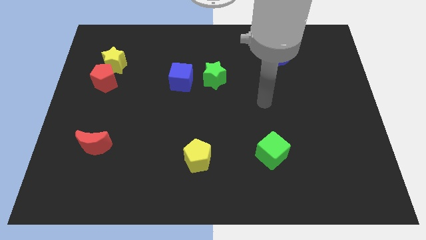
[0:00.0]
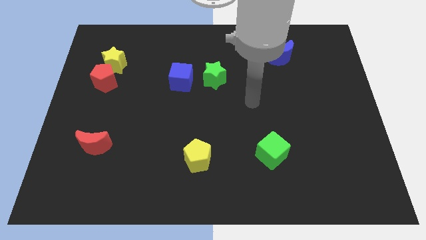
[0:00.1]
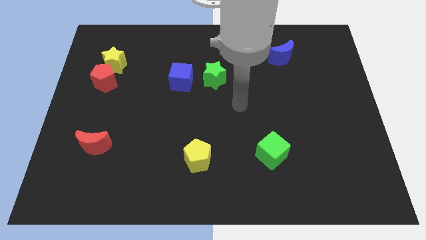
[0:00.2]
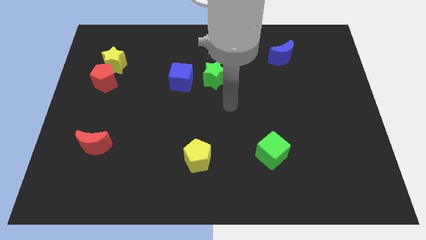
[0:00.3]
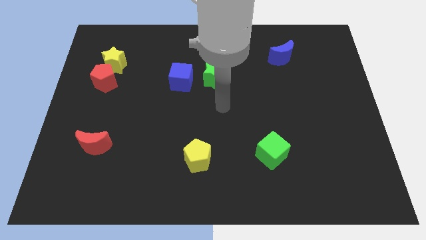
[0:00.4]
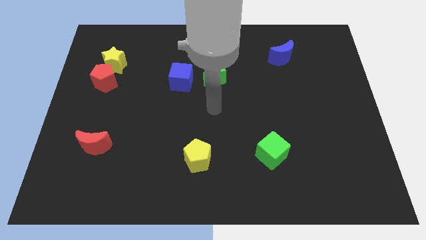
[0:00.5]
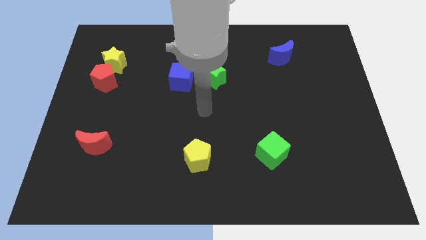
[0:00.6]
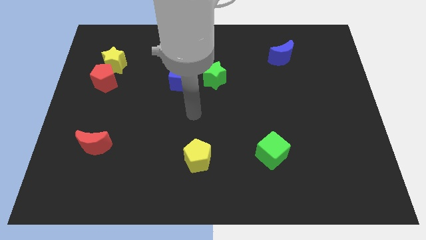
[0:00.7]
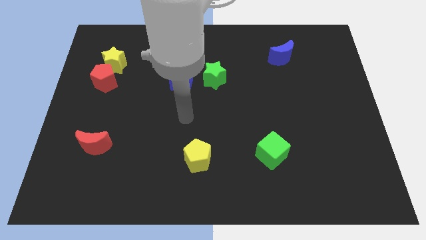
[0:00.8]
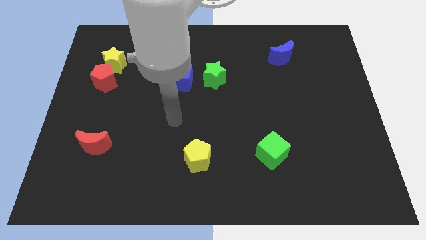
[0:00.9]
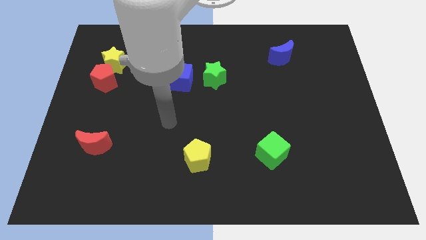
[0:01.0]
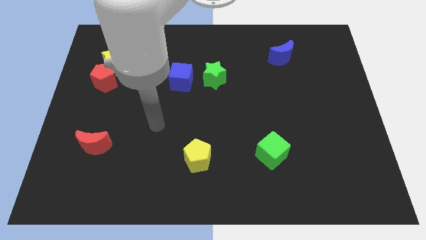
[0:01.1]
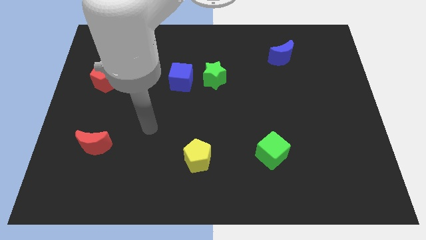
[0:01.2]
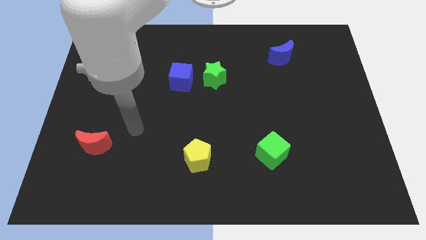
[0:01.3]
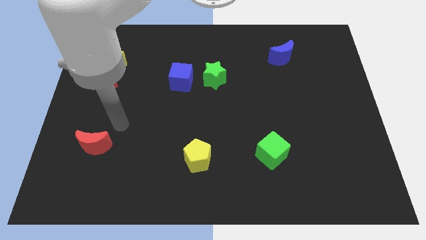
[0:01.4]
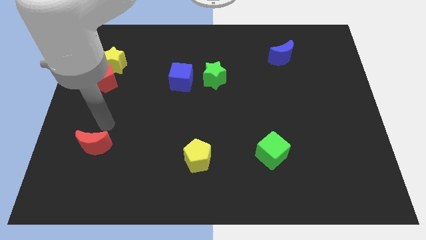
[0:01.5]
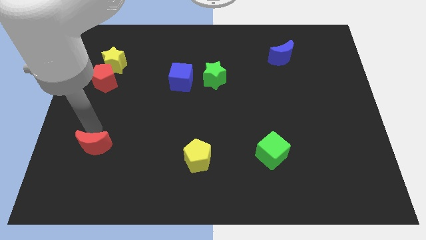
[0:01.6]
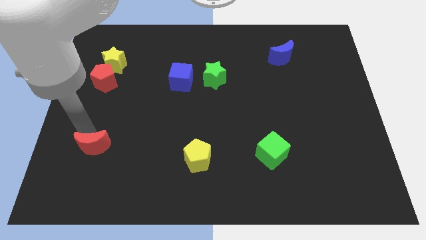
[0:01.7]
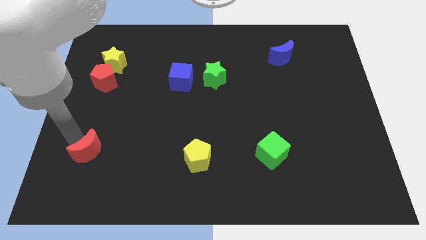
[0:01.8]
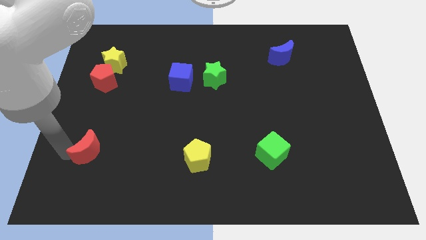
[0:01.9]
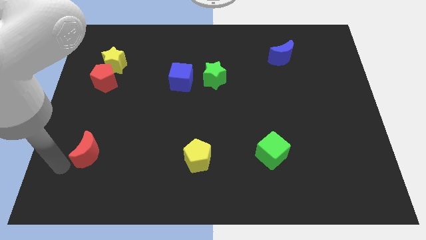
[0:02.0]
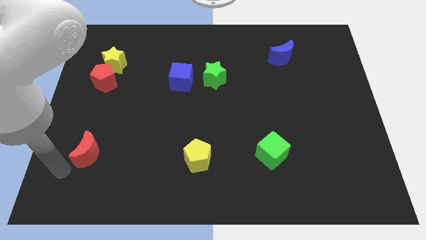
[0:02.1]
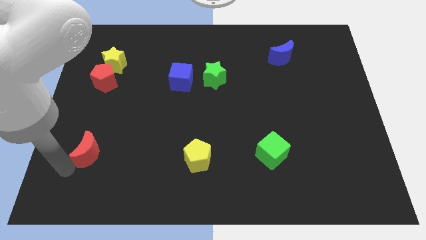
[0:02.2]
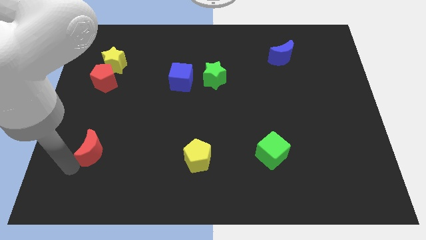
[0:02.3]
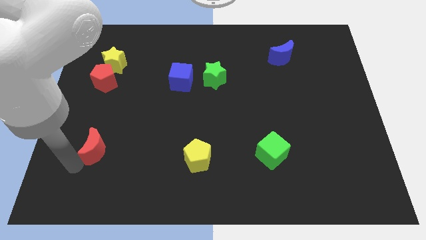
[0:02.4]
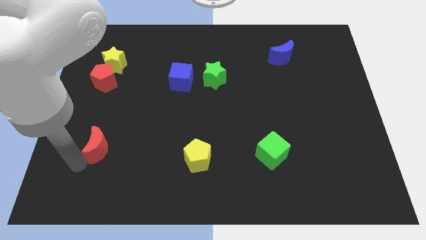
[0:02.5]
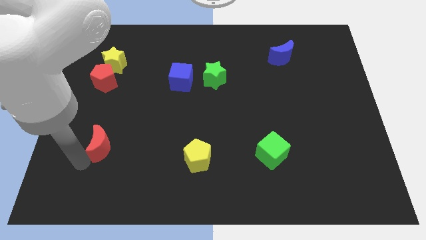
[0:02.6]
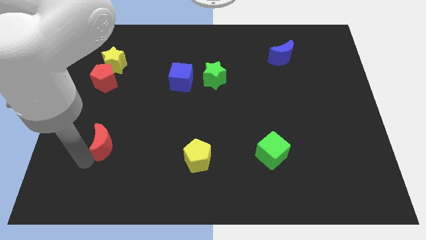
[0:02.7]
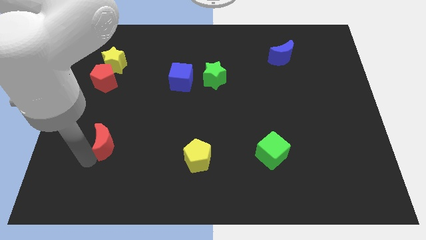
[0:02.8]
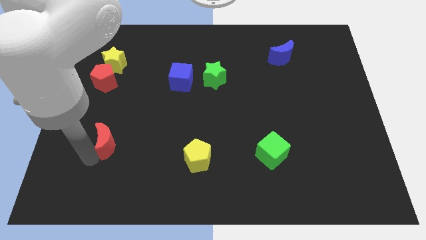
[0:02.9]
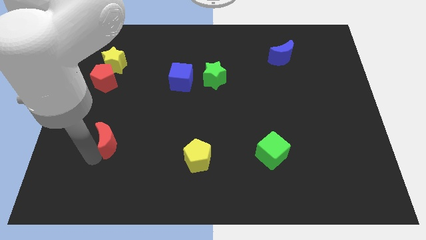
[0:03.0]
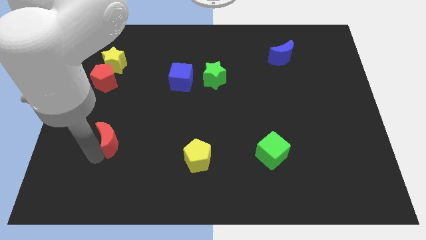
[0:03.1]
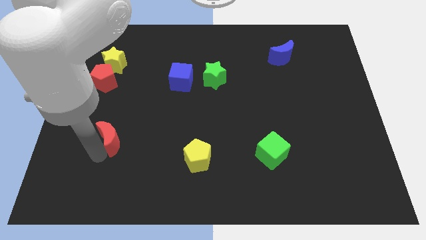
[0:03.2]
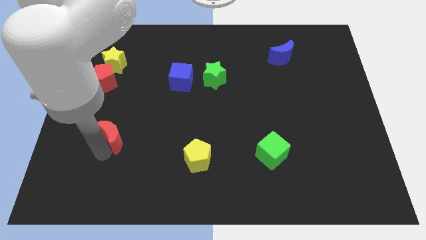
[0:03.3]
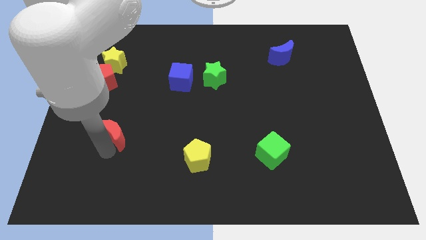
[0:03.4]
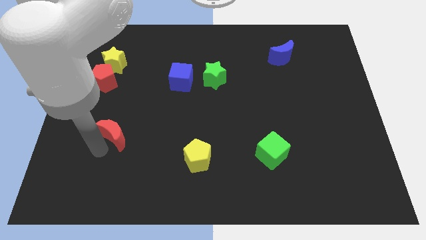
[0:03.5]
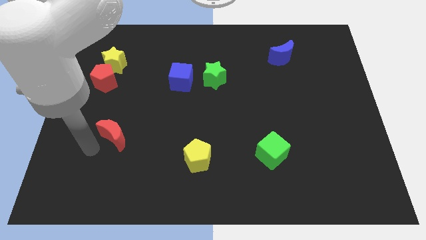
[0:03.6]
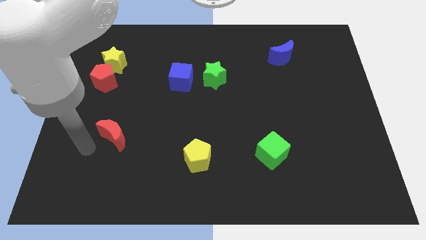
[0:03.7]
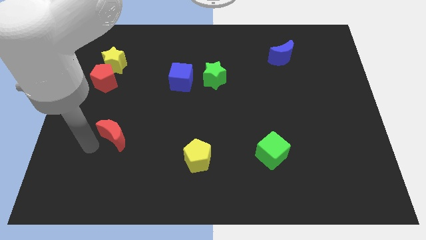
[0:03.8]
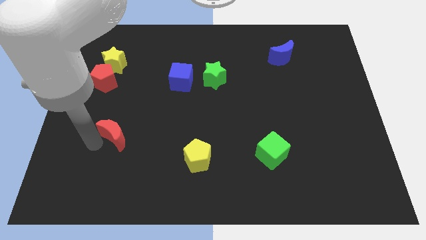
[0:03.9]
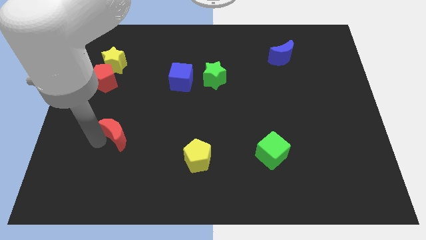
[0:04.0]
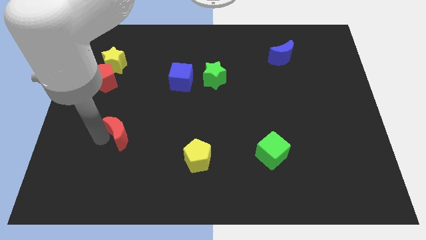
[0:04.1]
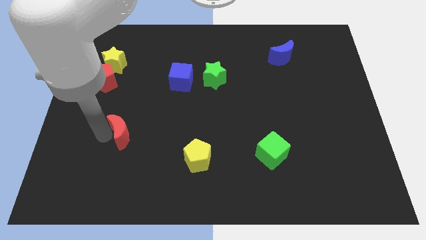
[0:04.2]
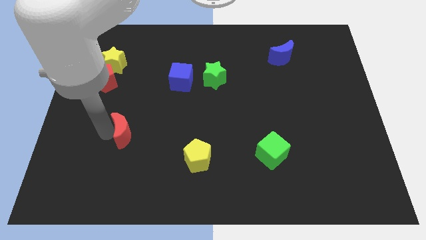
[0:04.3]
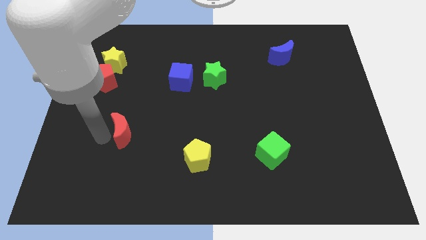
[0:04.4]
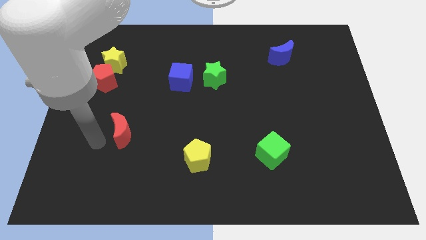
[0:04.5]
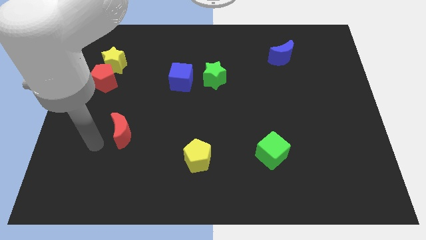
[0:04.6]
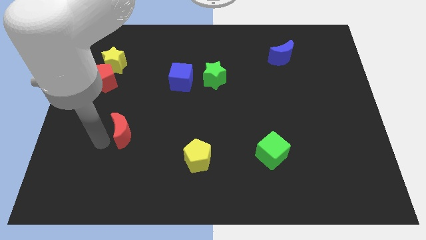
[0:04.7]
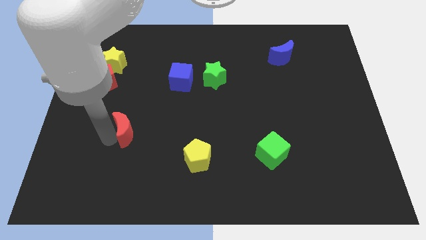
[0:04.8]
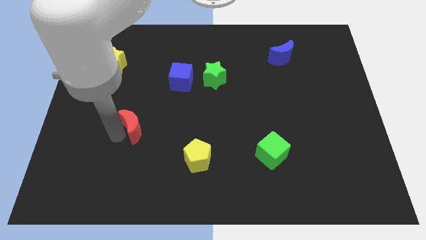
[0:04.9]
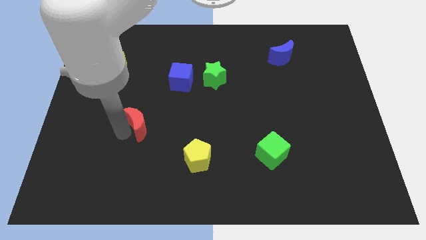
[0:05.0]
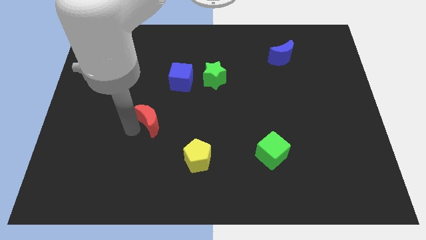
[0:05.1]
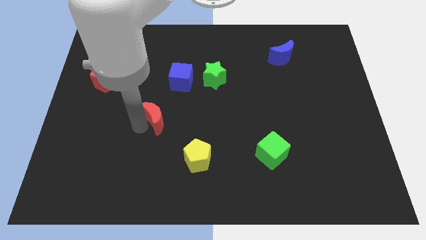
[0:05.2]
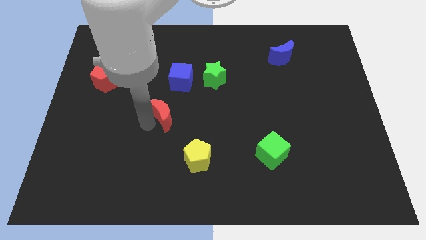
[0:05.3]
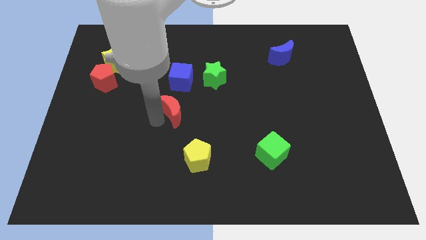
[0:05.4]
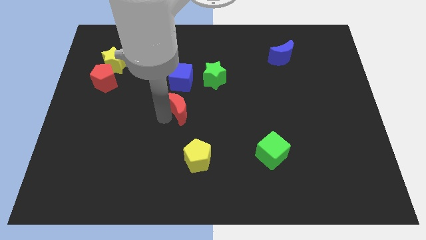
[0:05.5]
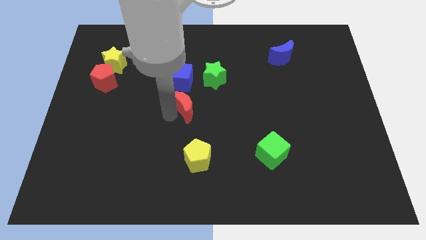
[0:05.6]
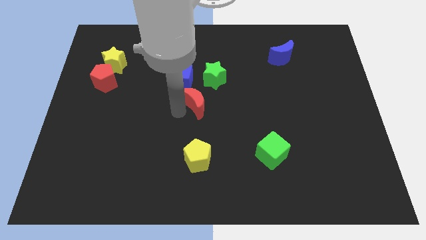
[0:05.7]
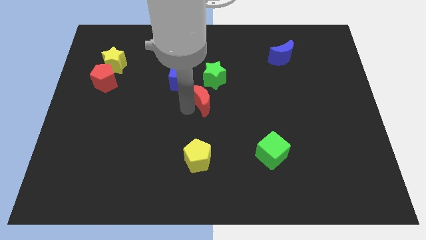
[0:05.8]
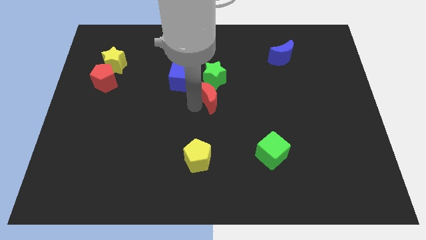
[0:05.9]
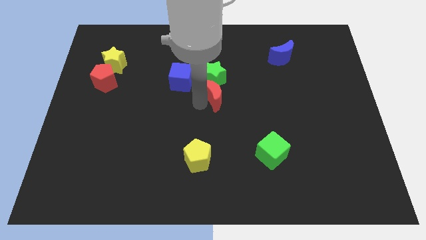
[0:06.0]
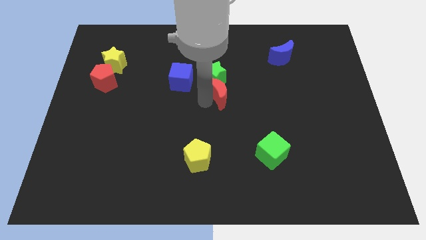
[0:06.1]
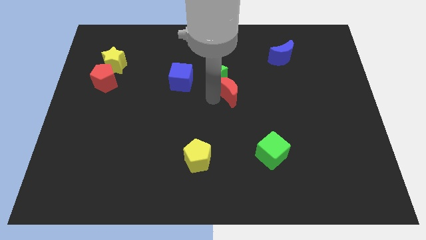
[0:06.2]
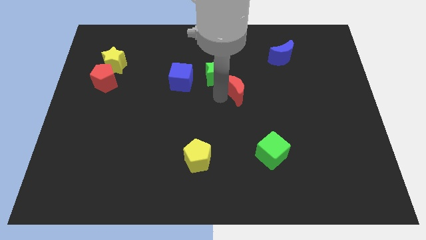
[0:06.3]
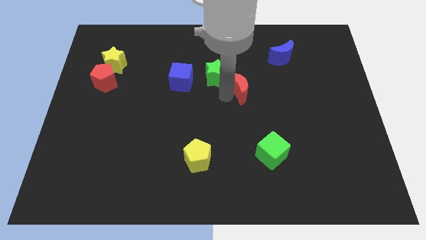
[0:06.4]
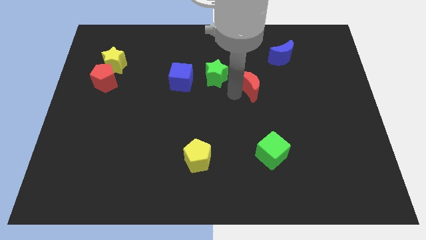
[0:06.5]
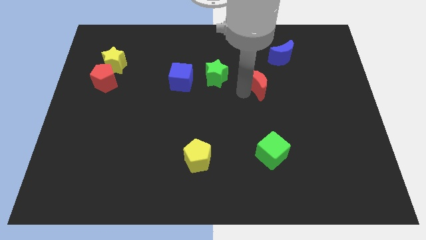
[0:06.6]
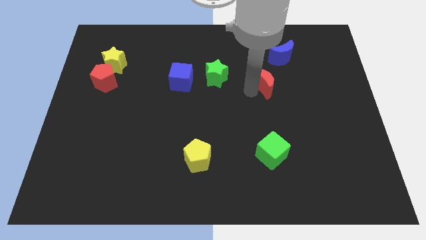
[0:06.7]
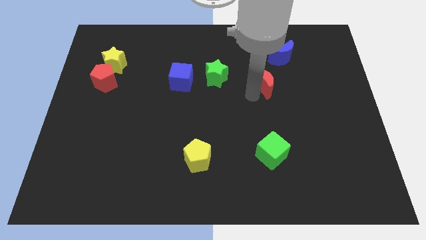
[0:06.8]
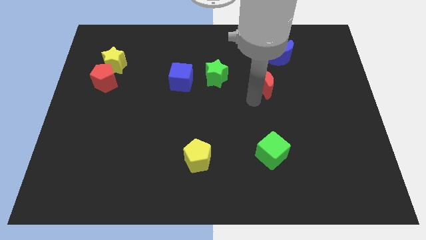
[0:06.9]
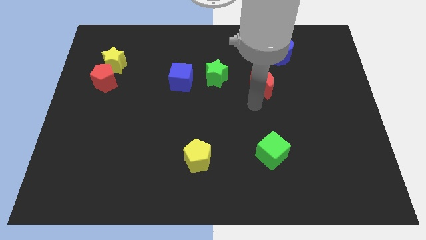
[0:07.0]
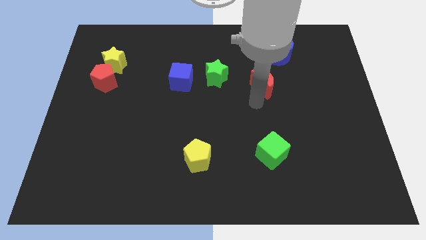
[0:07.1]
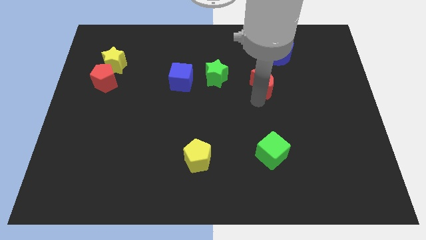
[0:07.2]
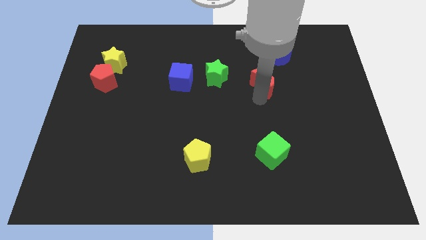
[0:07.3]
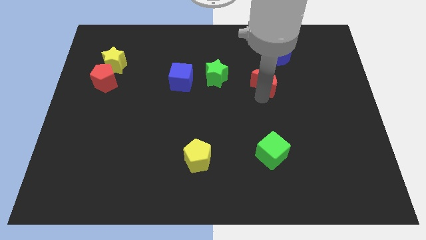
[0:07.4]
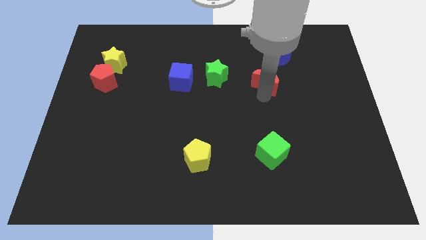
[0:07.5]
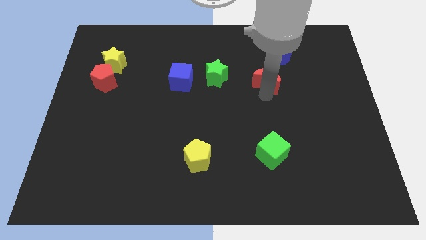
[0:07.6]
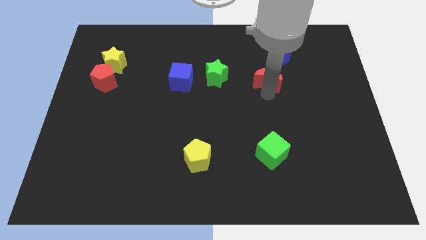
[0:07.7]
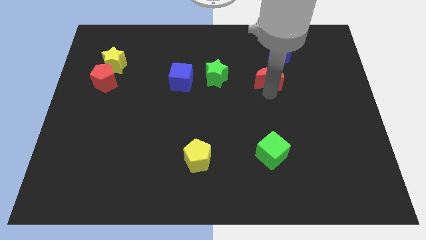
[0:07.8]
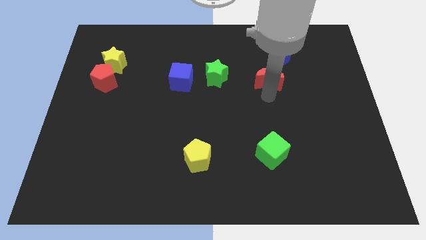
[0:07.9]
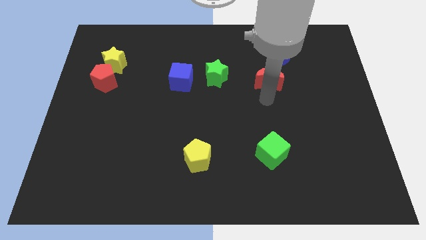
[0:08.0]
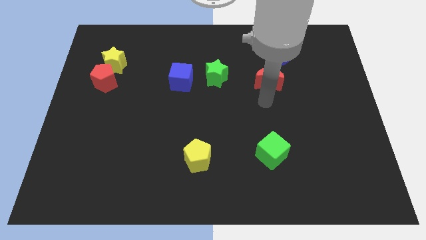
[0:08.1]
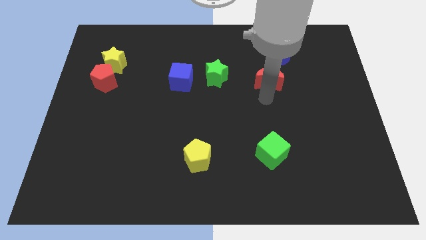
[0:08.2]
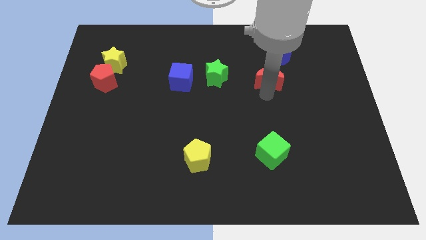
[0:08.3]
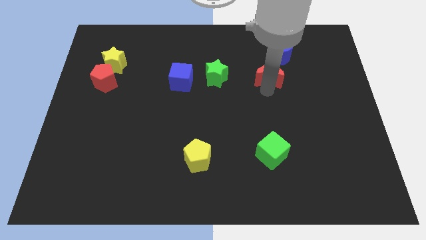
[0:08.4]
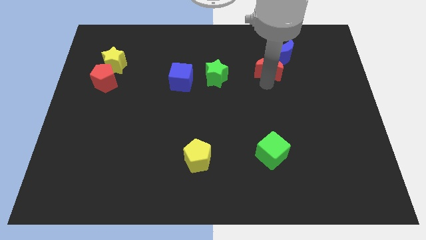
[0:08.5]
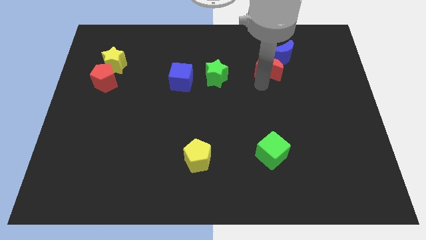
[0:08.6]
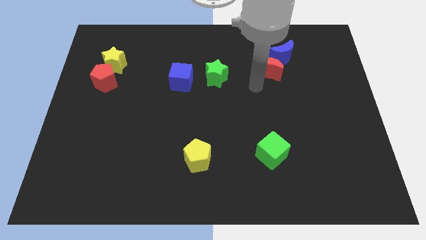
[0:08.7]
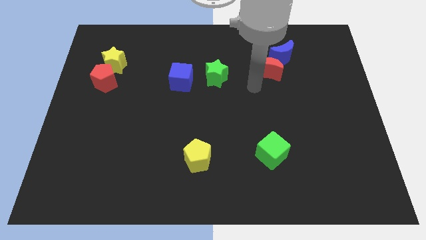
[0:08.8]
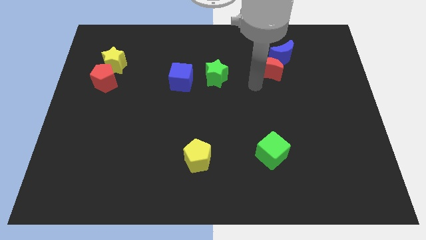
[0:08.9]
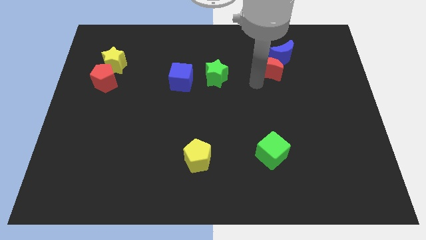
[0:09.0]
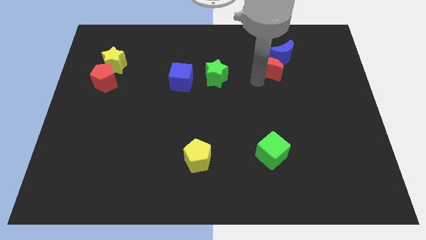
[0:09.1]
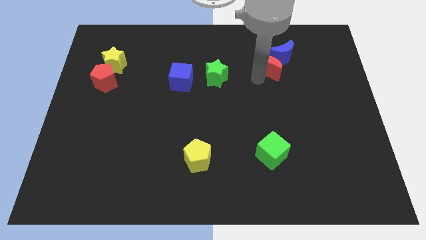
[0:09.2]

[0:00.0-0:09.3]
put the red moon to the blue moon
